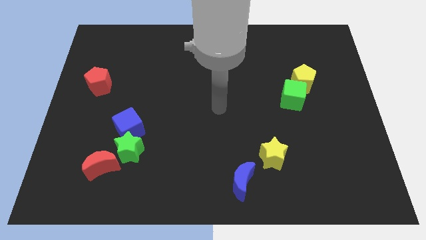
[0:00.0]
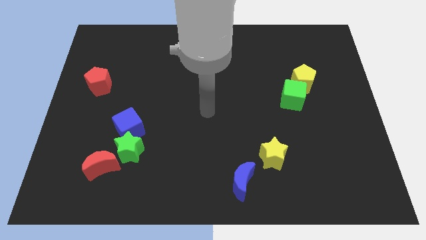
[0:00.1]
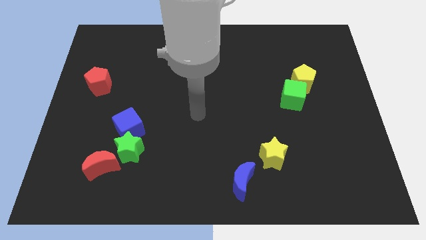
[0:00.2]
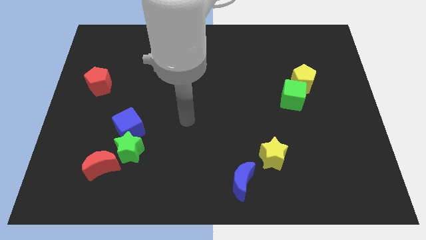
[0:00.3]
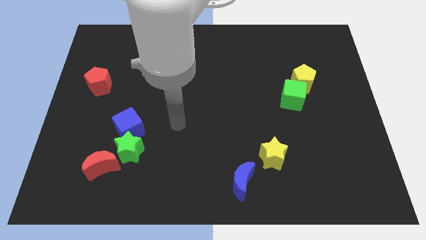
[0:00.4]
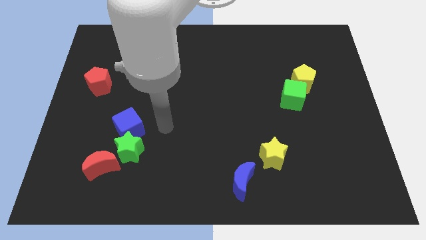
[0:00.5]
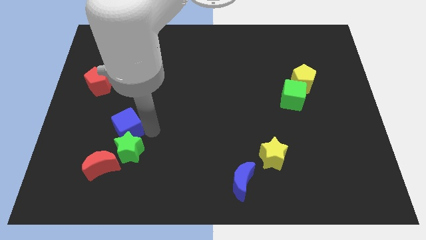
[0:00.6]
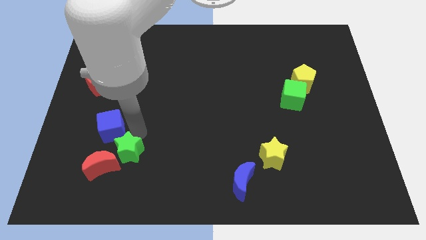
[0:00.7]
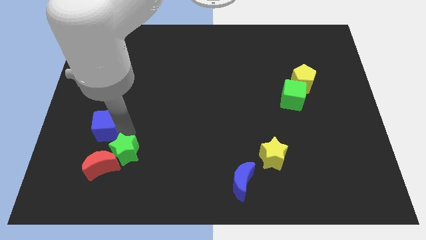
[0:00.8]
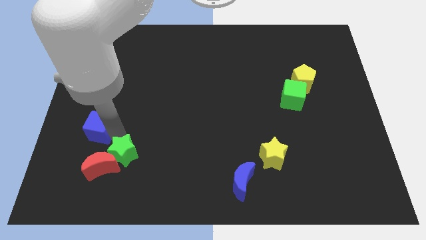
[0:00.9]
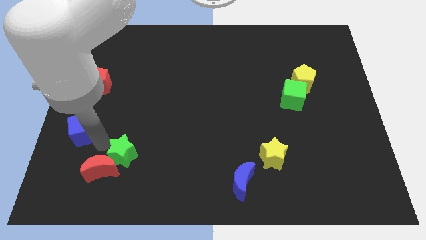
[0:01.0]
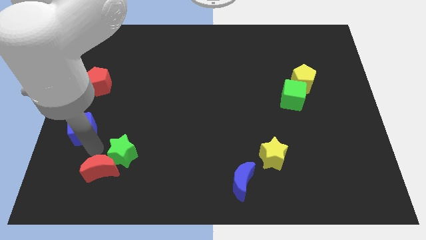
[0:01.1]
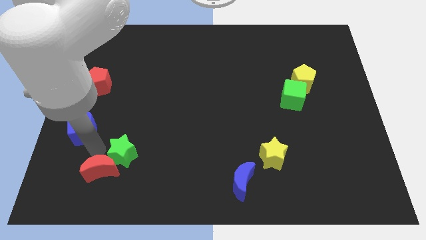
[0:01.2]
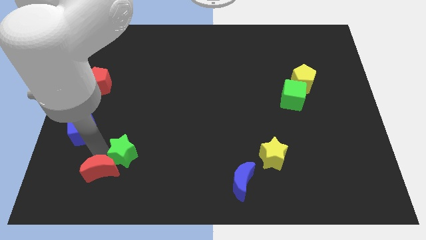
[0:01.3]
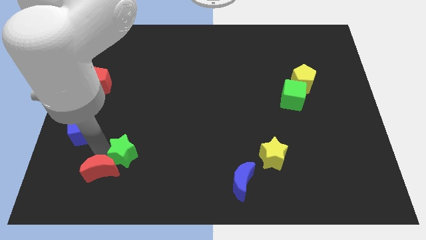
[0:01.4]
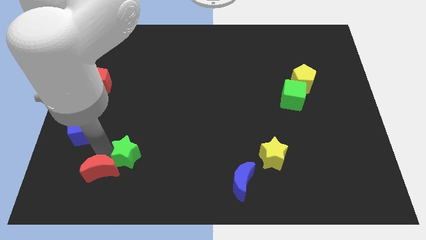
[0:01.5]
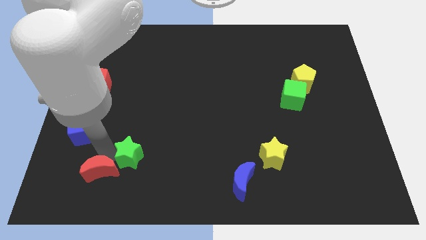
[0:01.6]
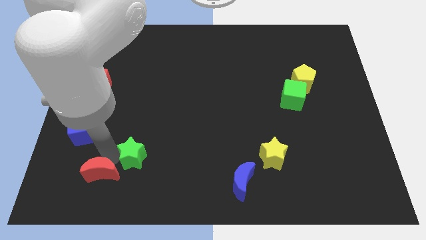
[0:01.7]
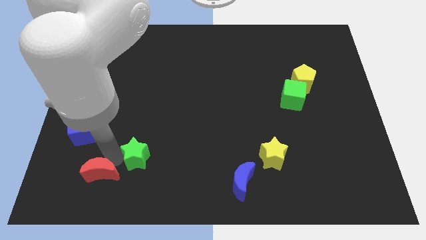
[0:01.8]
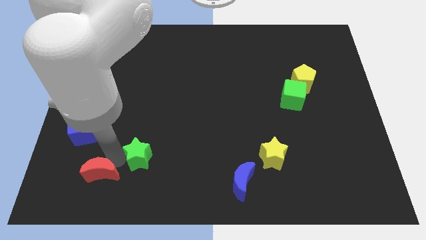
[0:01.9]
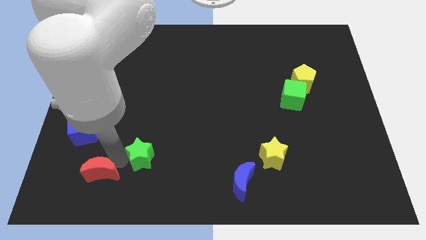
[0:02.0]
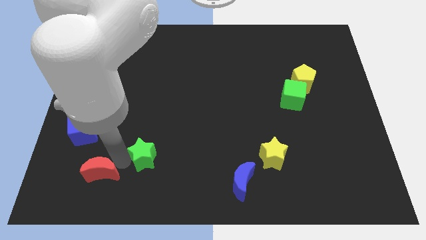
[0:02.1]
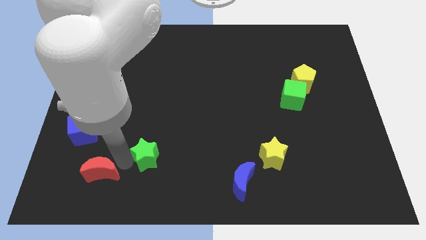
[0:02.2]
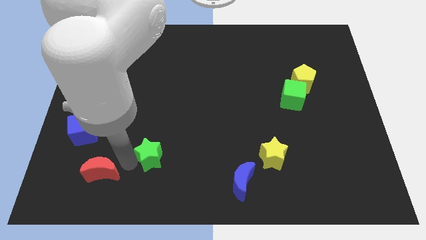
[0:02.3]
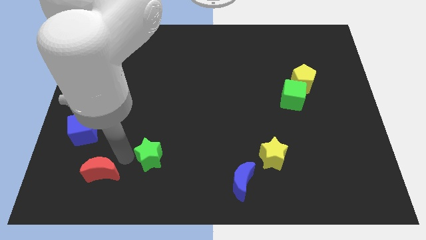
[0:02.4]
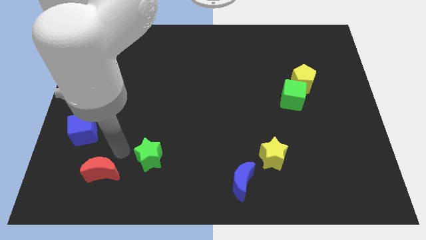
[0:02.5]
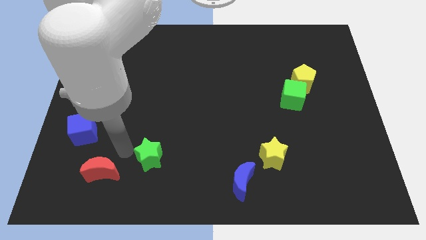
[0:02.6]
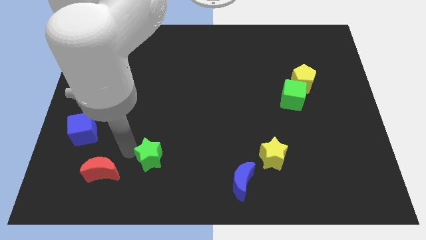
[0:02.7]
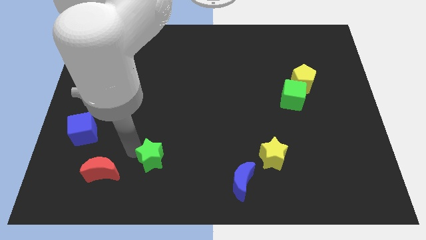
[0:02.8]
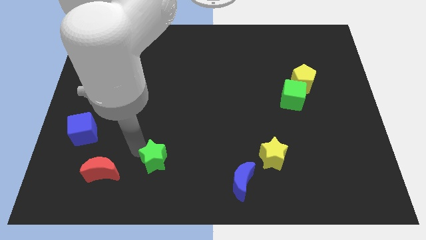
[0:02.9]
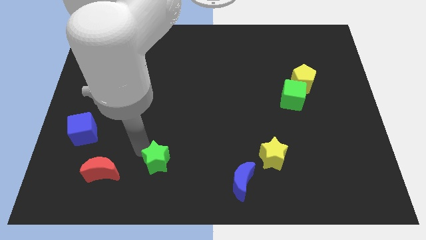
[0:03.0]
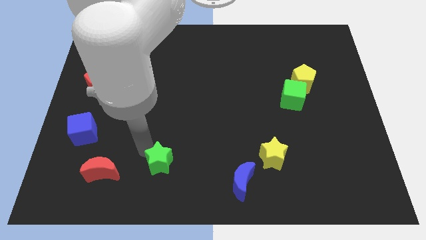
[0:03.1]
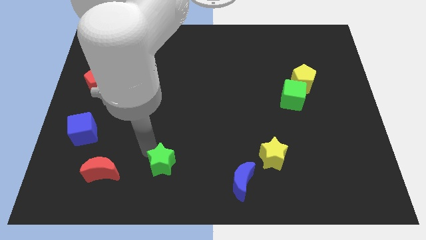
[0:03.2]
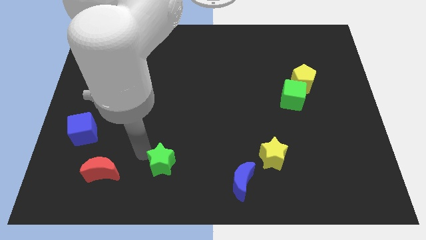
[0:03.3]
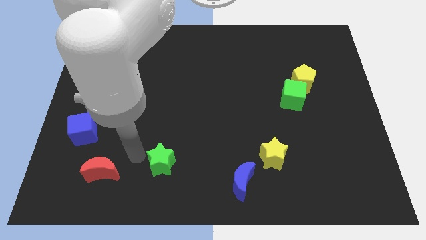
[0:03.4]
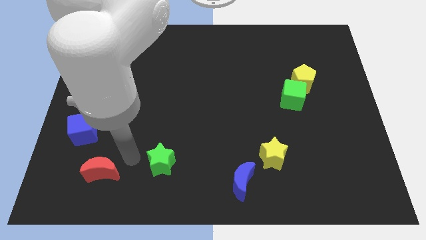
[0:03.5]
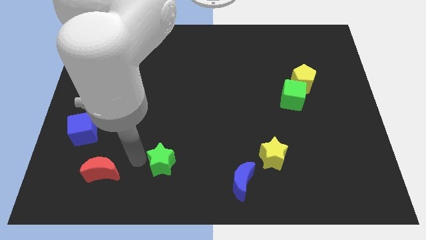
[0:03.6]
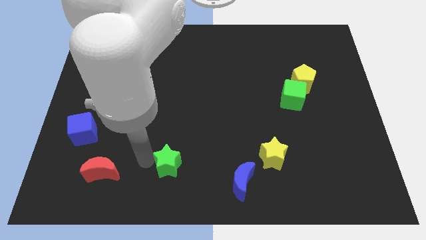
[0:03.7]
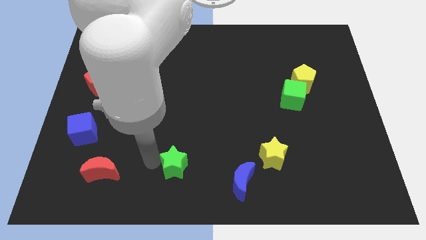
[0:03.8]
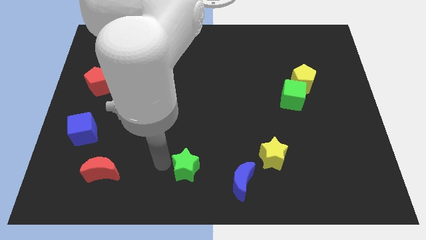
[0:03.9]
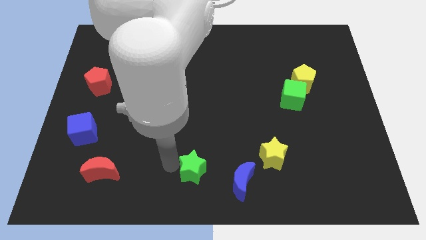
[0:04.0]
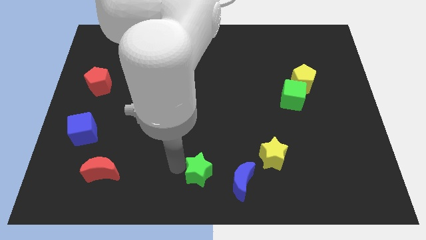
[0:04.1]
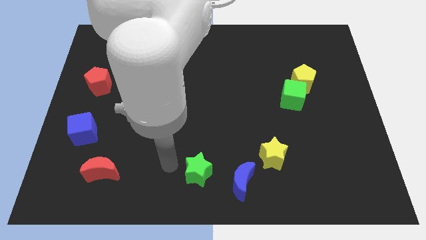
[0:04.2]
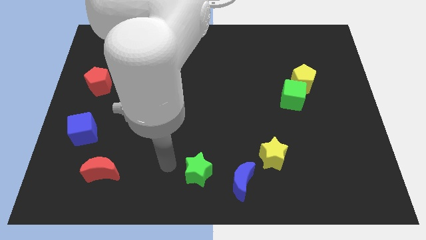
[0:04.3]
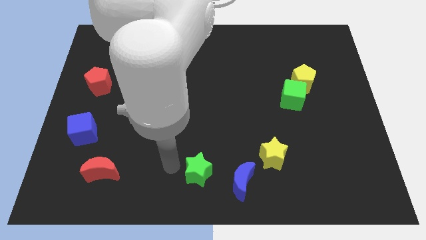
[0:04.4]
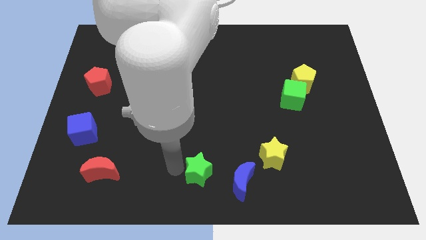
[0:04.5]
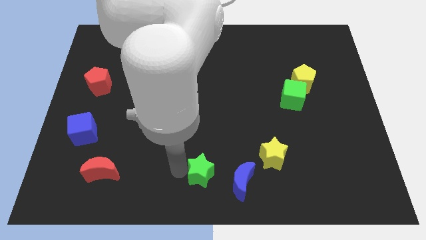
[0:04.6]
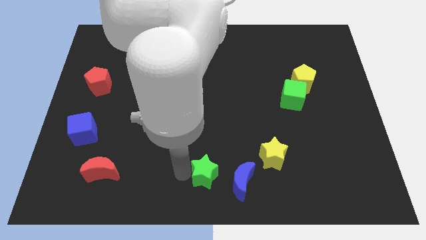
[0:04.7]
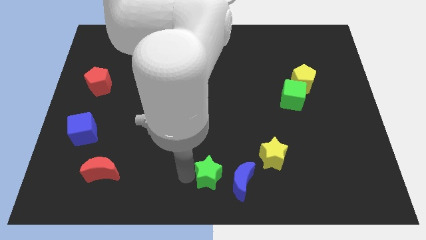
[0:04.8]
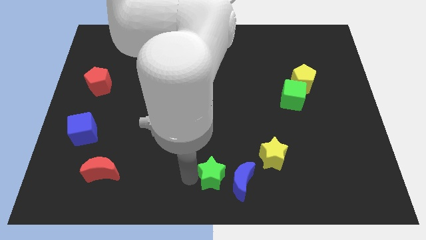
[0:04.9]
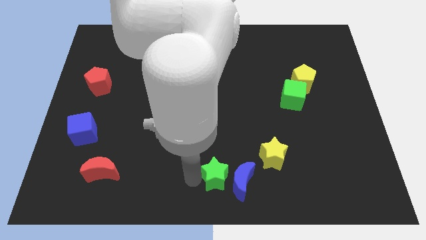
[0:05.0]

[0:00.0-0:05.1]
slide the green star to the blue moon

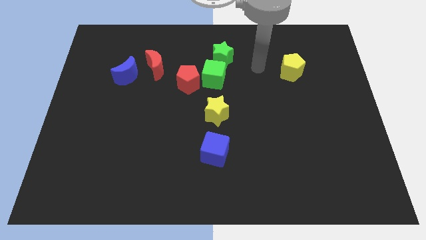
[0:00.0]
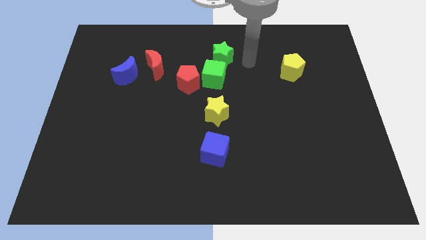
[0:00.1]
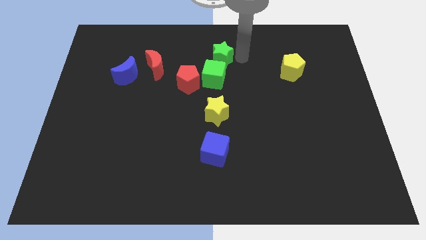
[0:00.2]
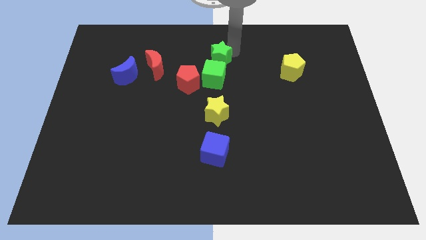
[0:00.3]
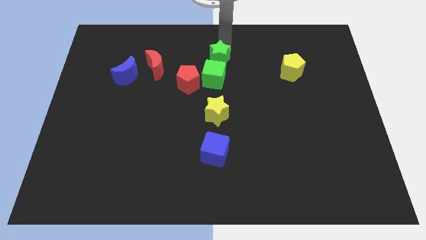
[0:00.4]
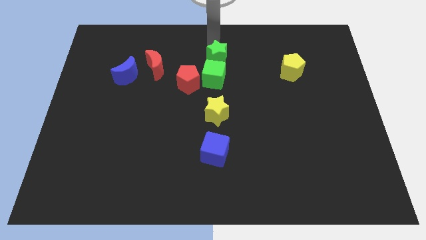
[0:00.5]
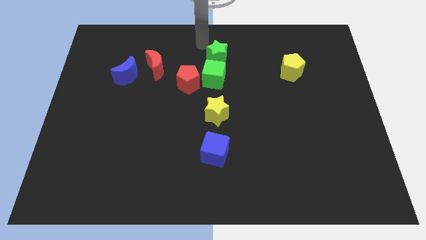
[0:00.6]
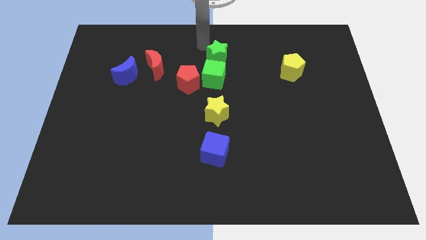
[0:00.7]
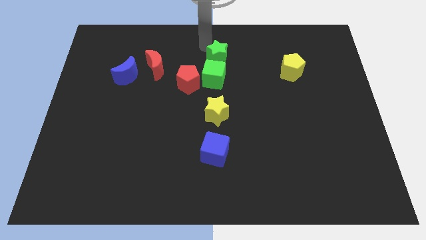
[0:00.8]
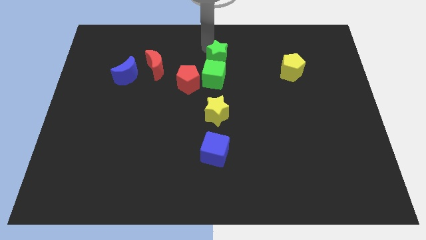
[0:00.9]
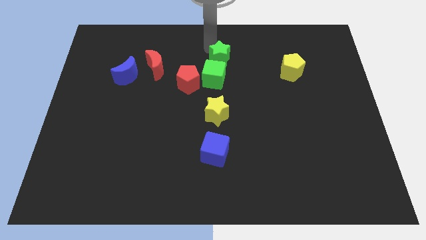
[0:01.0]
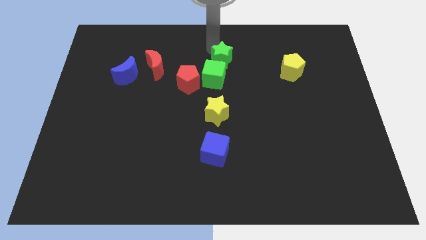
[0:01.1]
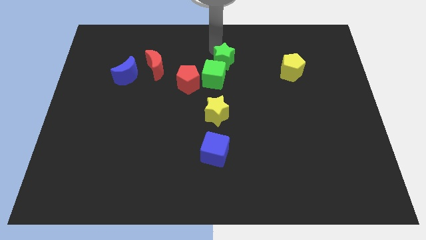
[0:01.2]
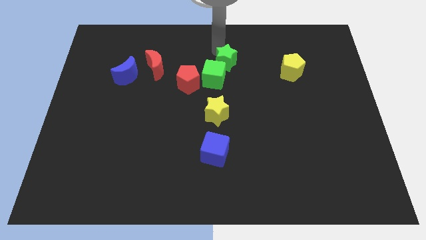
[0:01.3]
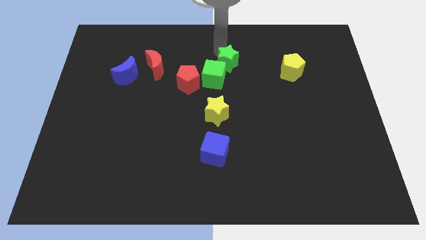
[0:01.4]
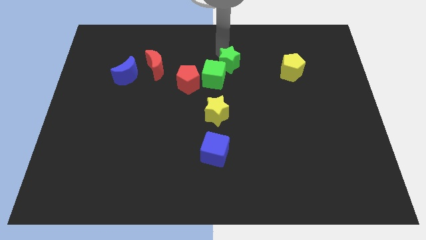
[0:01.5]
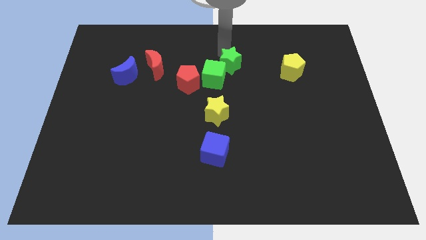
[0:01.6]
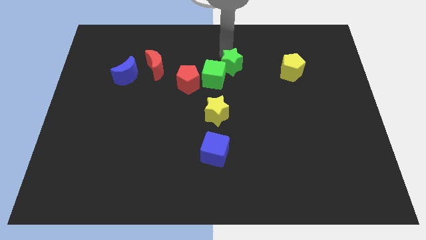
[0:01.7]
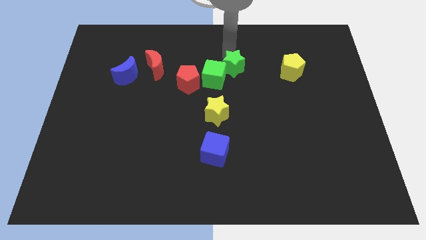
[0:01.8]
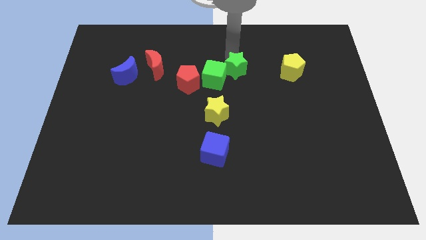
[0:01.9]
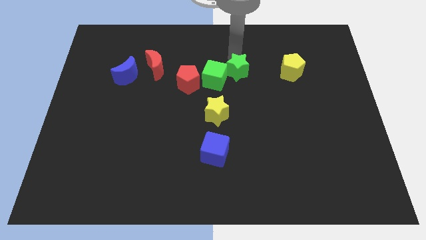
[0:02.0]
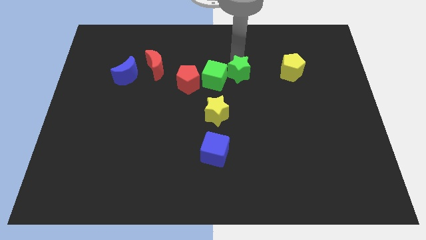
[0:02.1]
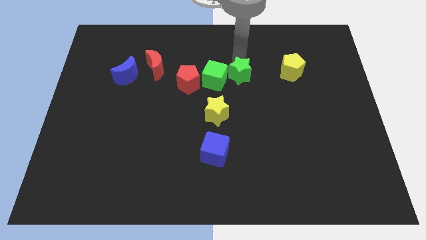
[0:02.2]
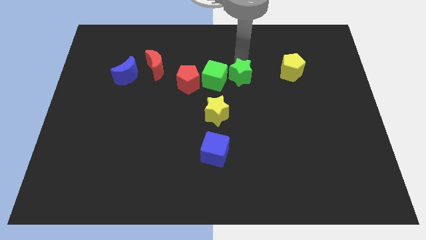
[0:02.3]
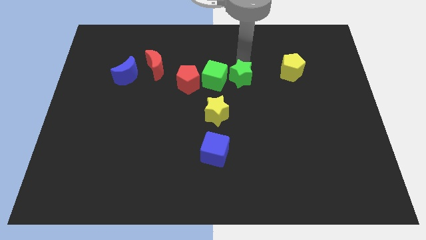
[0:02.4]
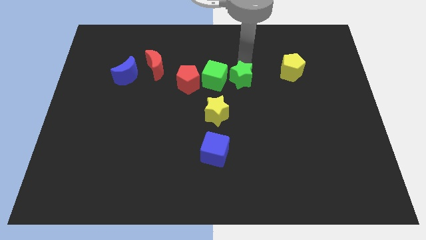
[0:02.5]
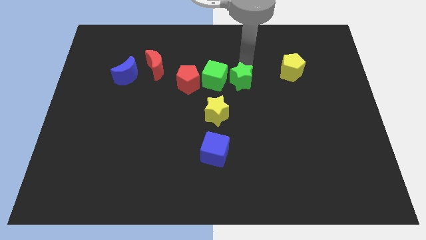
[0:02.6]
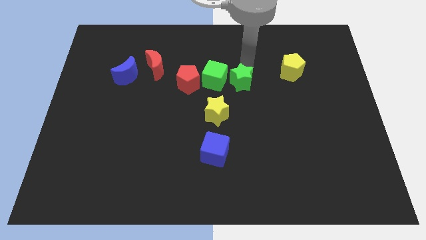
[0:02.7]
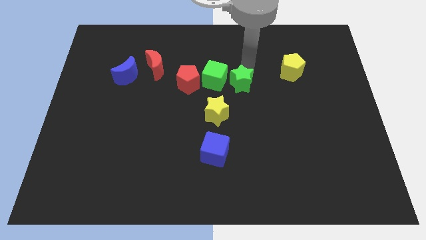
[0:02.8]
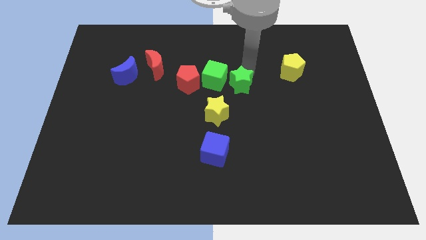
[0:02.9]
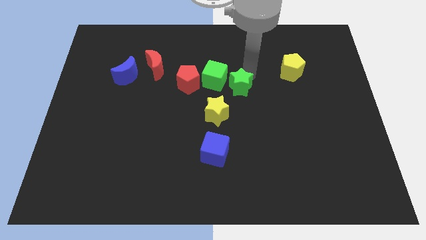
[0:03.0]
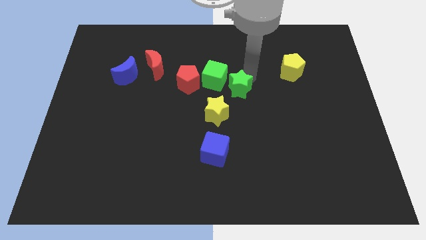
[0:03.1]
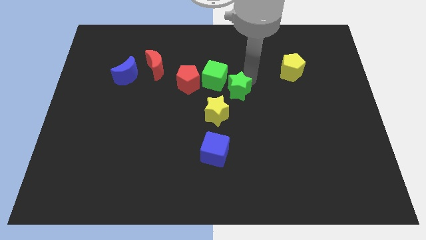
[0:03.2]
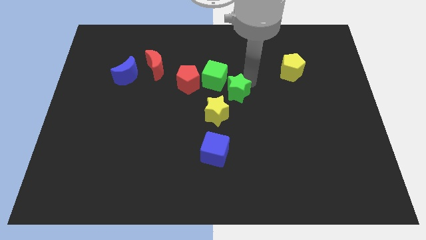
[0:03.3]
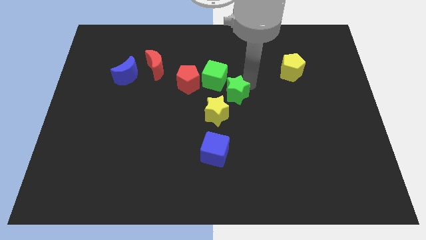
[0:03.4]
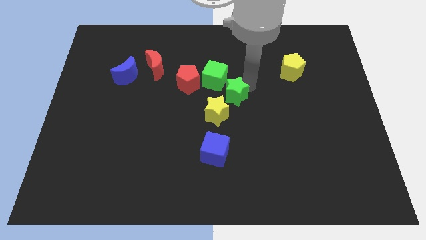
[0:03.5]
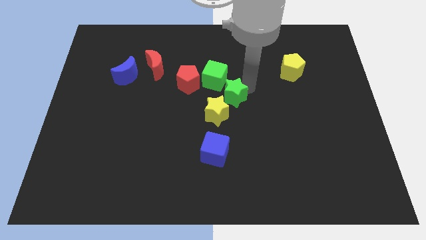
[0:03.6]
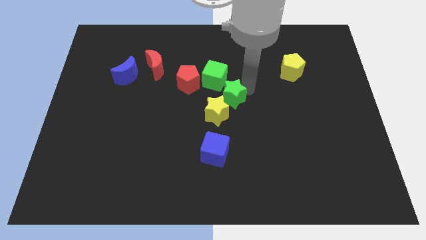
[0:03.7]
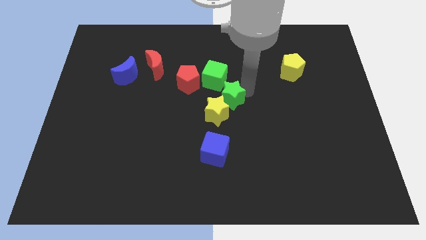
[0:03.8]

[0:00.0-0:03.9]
slide the green star close to the yellow star
